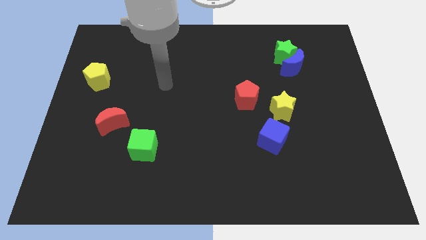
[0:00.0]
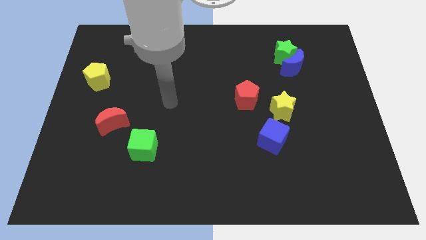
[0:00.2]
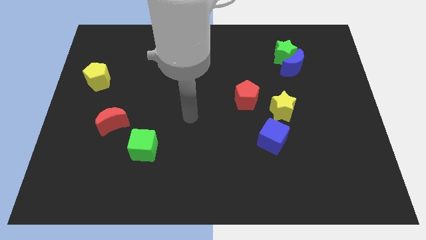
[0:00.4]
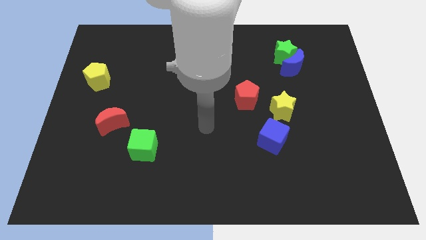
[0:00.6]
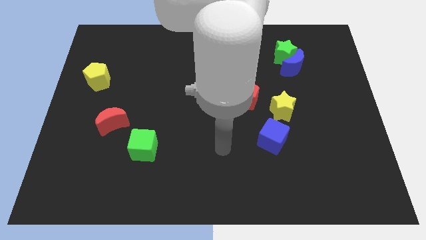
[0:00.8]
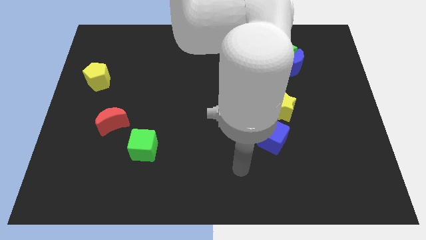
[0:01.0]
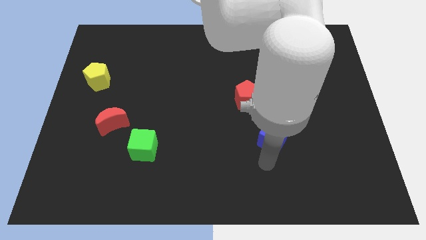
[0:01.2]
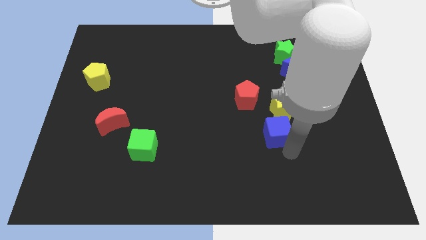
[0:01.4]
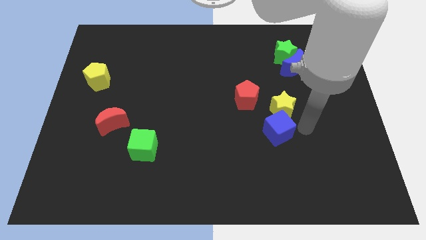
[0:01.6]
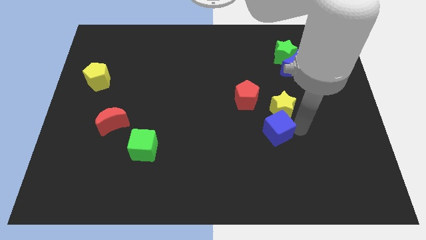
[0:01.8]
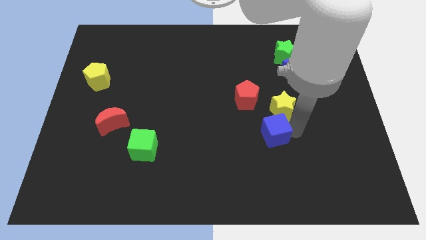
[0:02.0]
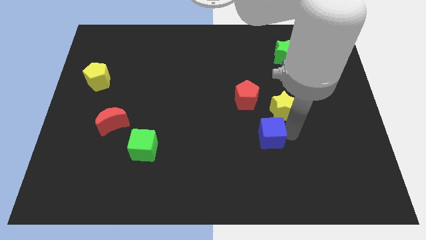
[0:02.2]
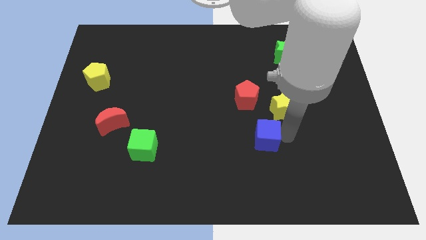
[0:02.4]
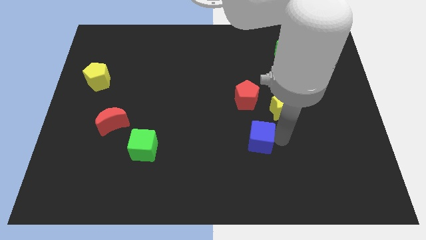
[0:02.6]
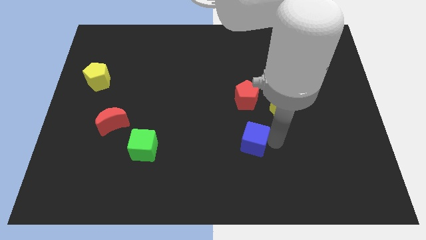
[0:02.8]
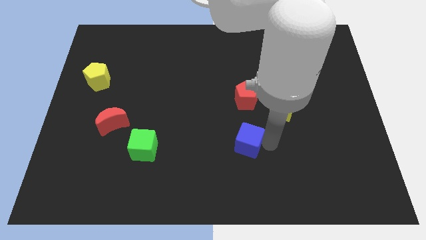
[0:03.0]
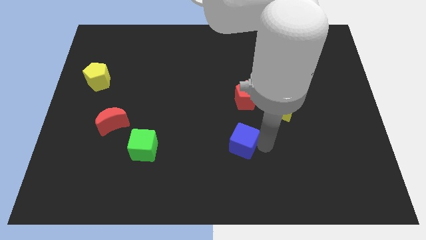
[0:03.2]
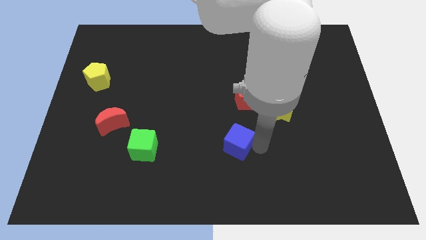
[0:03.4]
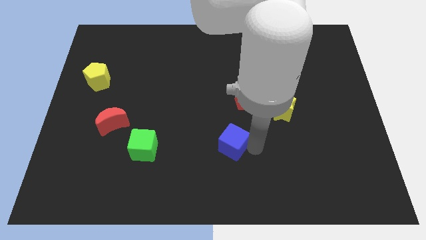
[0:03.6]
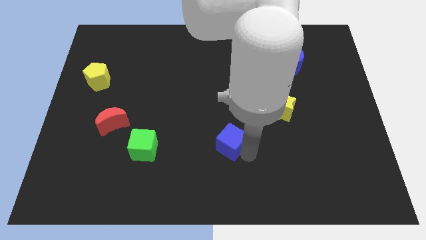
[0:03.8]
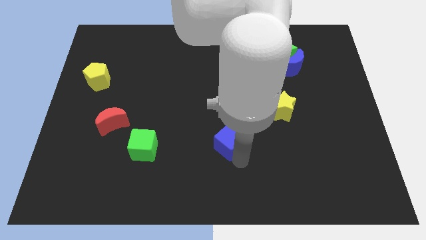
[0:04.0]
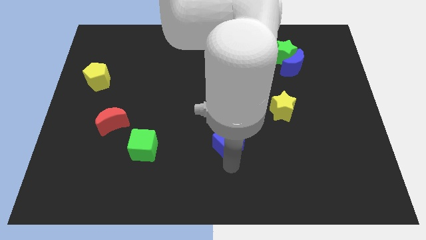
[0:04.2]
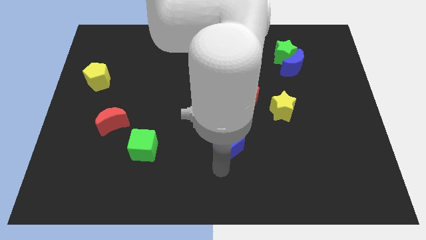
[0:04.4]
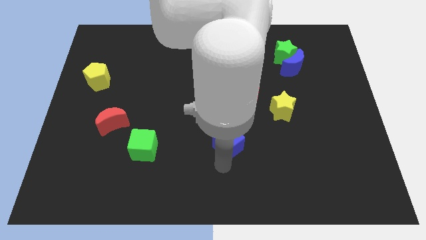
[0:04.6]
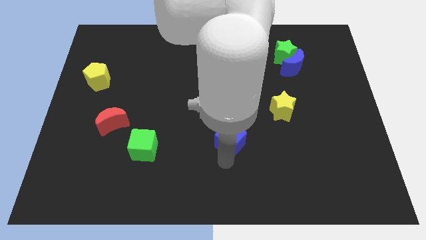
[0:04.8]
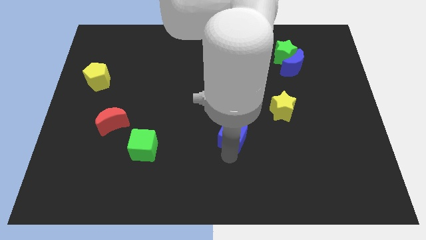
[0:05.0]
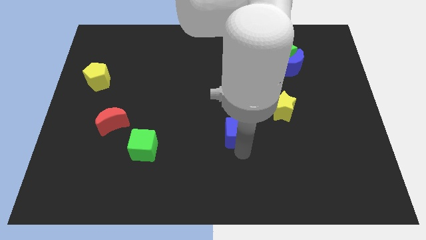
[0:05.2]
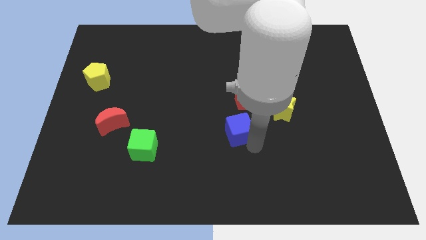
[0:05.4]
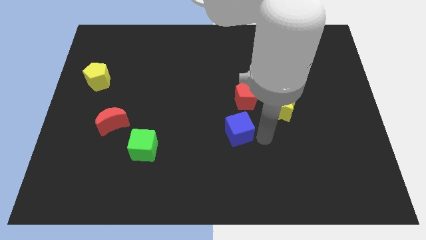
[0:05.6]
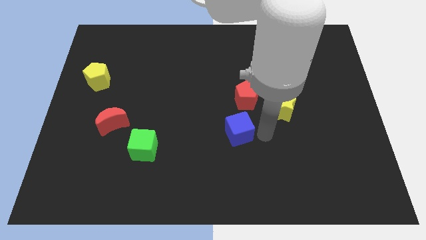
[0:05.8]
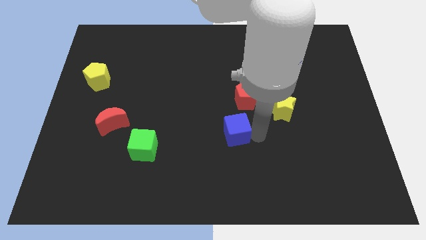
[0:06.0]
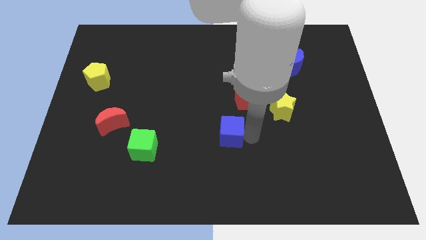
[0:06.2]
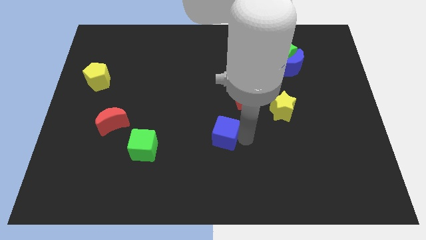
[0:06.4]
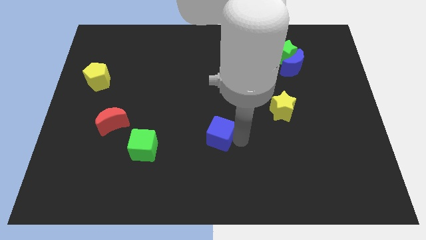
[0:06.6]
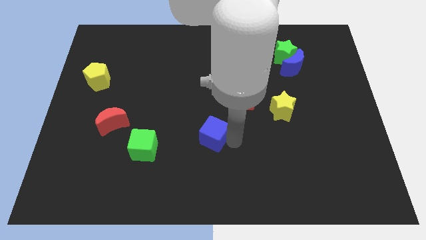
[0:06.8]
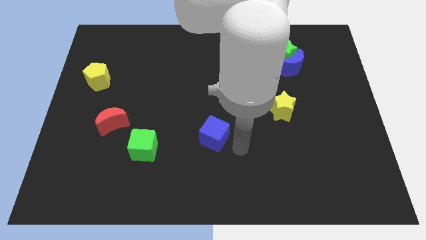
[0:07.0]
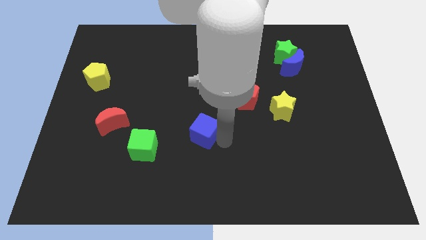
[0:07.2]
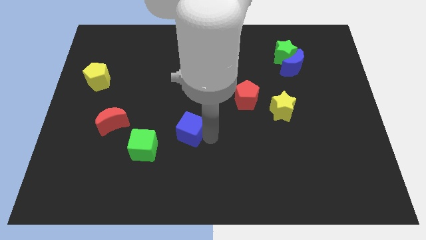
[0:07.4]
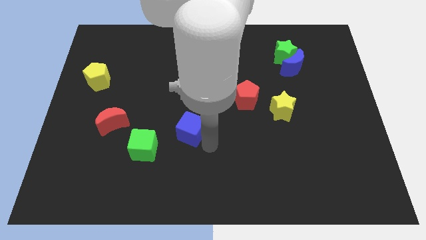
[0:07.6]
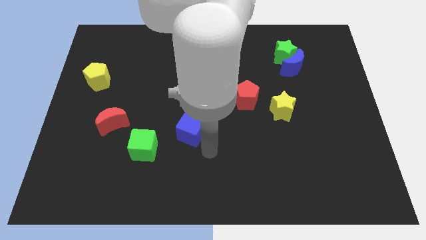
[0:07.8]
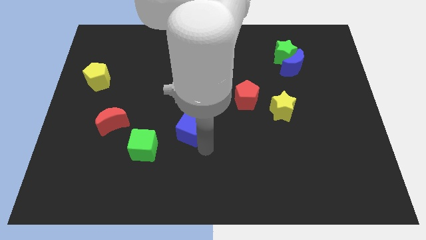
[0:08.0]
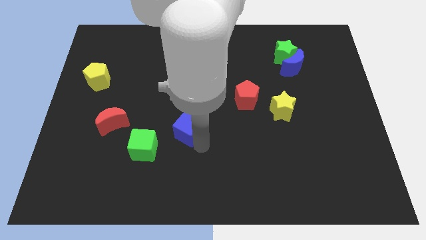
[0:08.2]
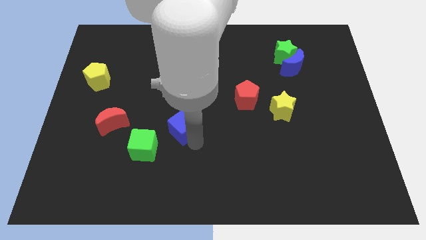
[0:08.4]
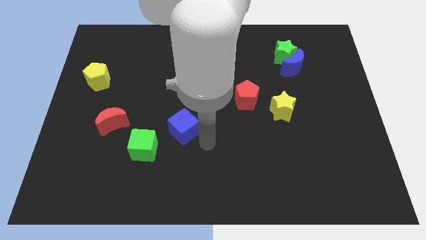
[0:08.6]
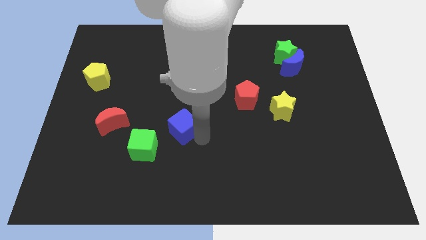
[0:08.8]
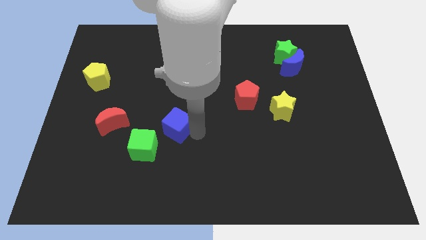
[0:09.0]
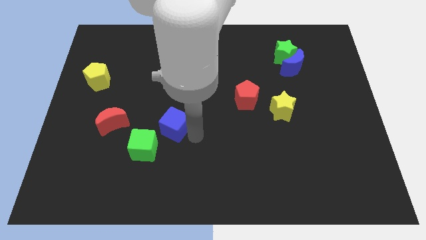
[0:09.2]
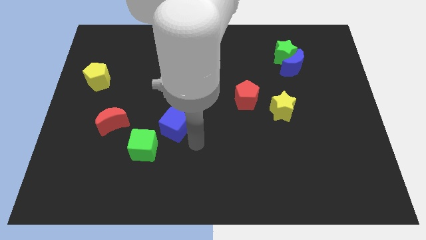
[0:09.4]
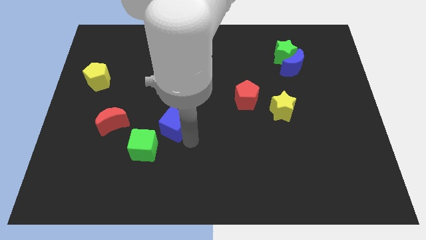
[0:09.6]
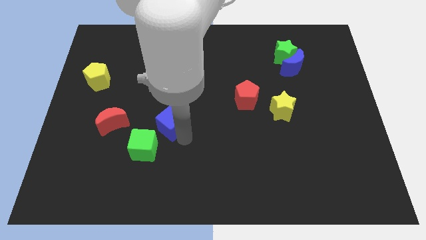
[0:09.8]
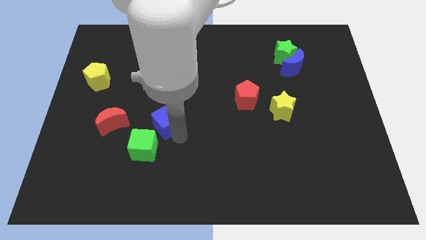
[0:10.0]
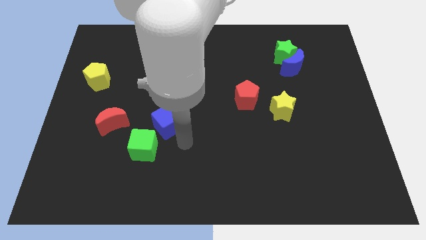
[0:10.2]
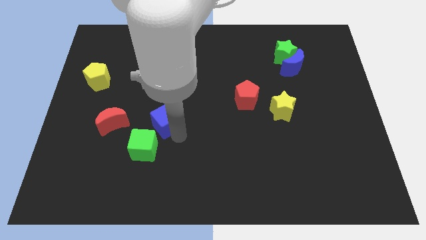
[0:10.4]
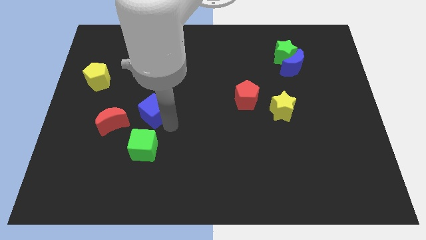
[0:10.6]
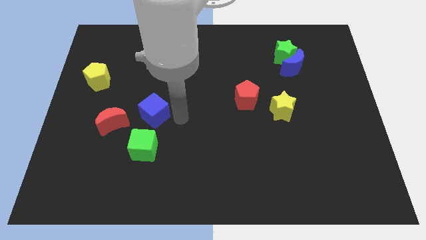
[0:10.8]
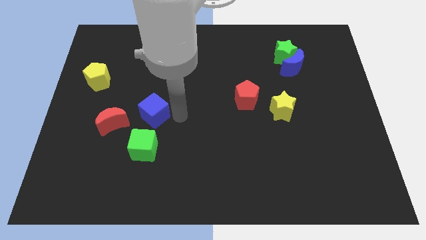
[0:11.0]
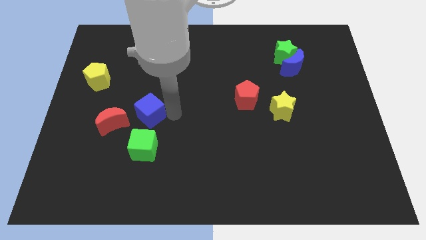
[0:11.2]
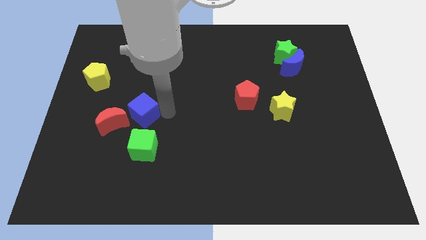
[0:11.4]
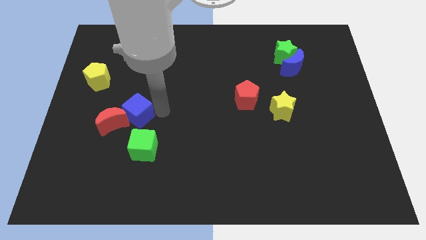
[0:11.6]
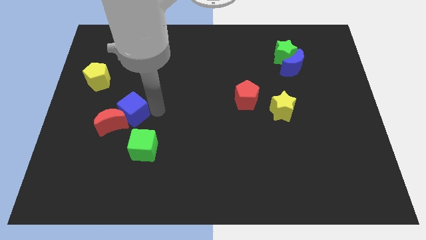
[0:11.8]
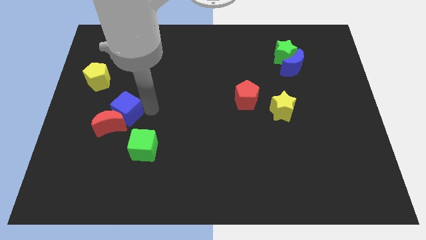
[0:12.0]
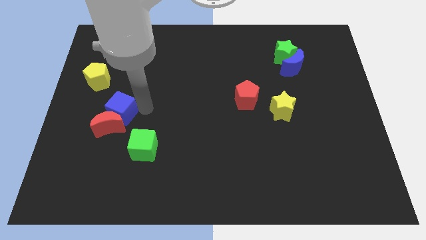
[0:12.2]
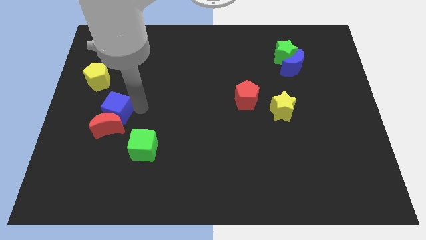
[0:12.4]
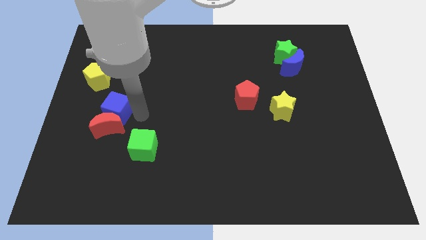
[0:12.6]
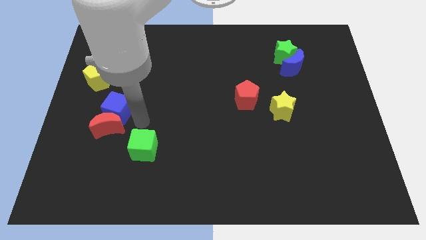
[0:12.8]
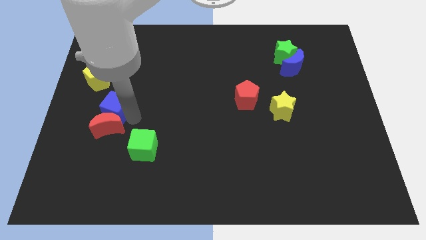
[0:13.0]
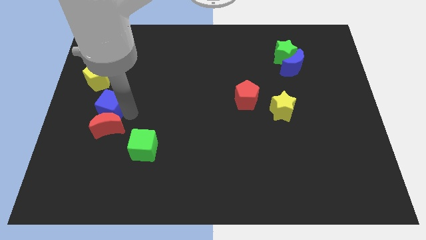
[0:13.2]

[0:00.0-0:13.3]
slide the blue cube to the bottom of the yellow pentagon

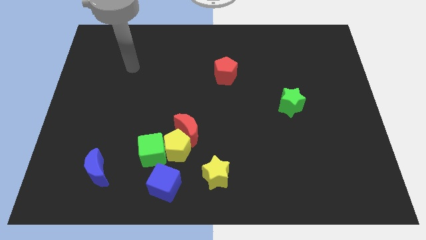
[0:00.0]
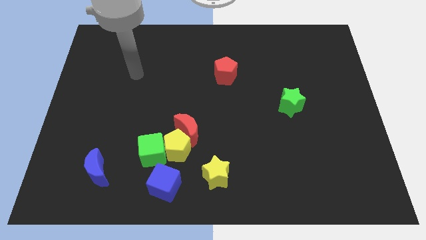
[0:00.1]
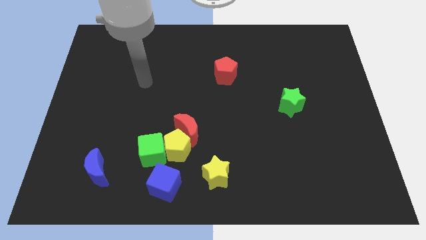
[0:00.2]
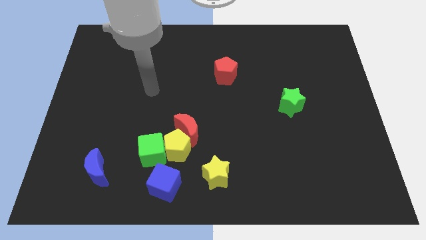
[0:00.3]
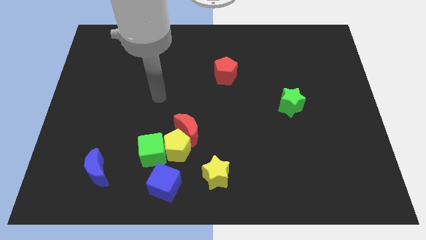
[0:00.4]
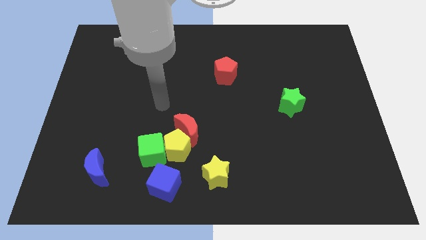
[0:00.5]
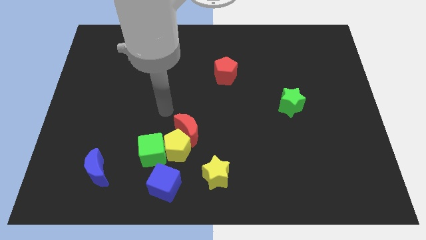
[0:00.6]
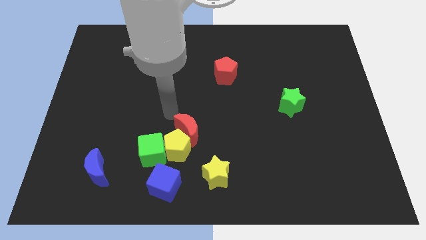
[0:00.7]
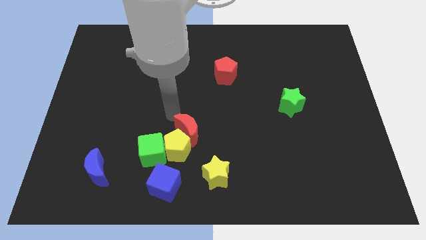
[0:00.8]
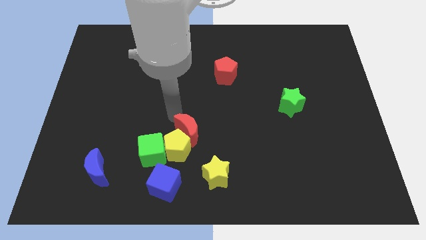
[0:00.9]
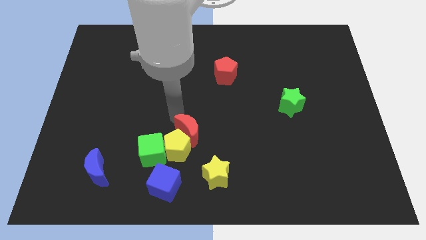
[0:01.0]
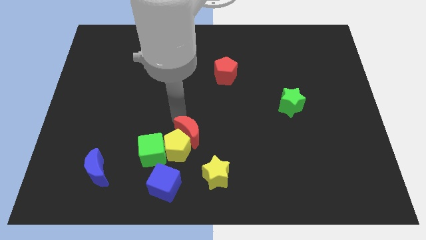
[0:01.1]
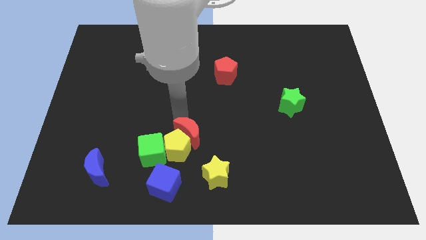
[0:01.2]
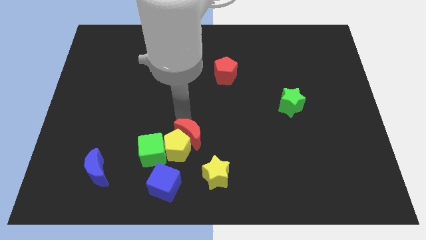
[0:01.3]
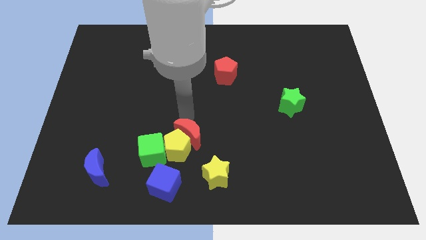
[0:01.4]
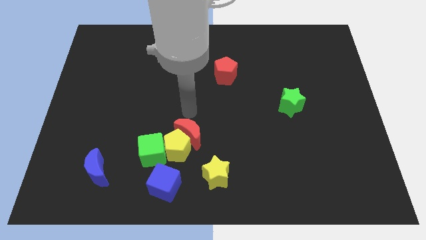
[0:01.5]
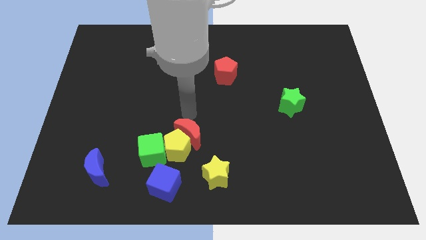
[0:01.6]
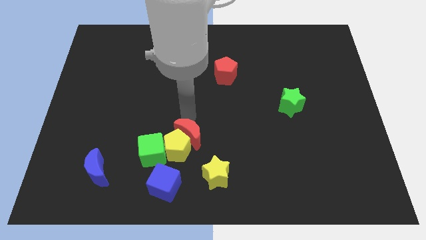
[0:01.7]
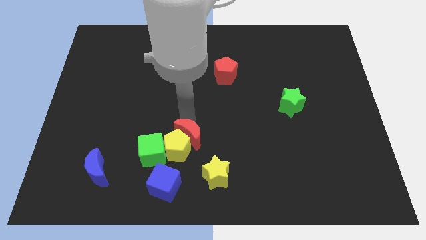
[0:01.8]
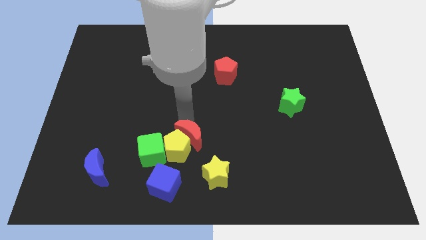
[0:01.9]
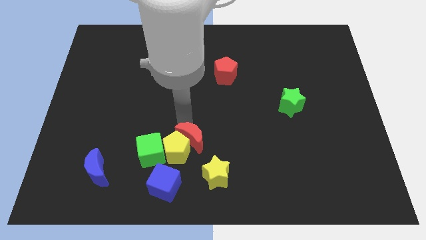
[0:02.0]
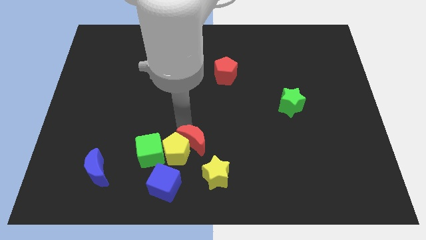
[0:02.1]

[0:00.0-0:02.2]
move the red moon to the top right side of the blue cube
